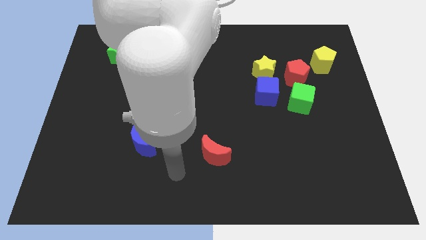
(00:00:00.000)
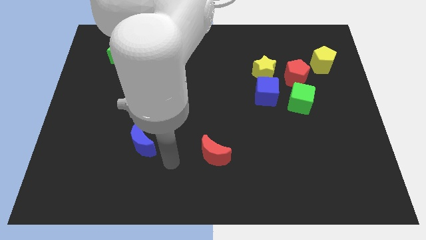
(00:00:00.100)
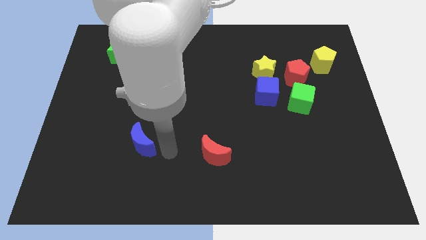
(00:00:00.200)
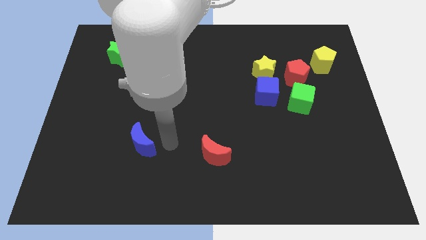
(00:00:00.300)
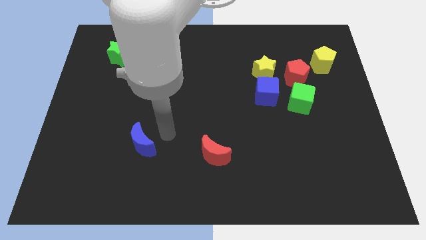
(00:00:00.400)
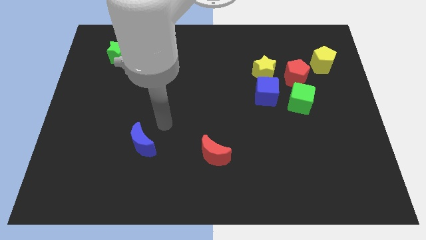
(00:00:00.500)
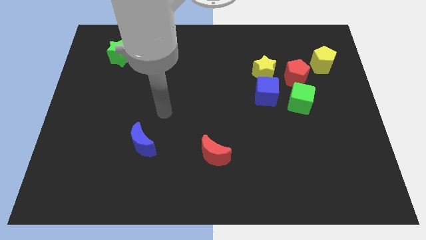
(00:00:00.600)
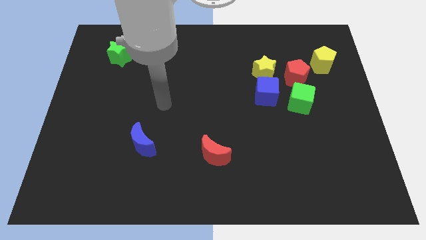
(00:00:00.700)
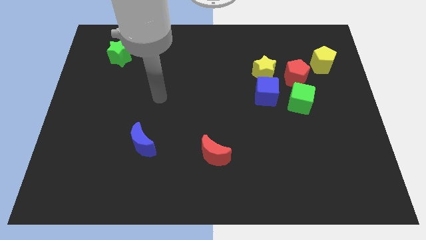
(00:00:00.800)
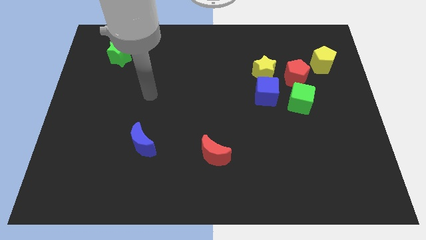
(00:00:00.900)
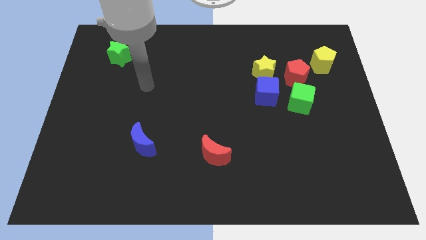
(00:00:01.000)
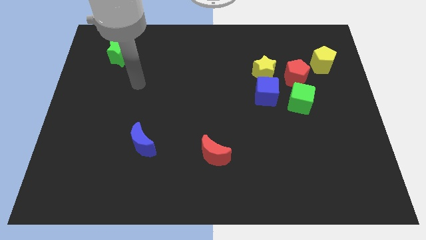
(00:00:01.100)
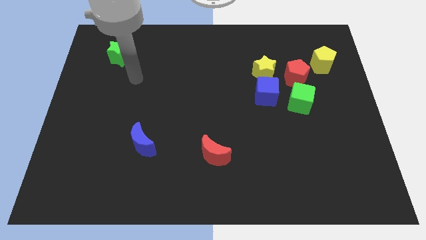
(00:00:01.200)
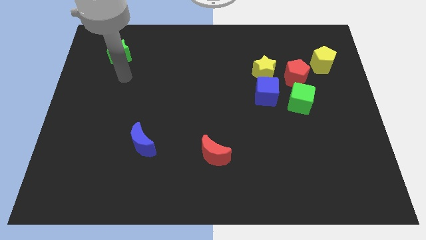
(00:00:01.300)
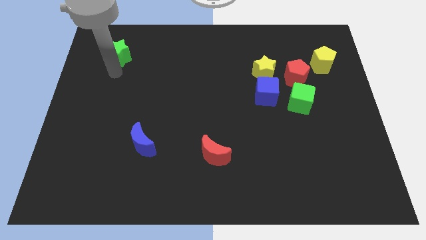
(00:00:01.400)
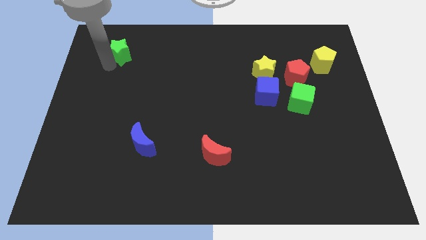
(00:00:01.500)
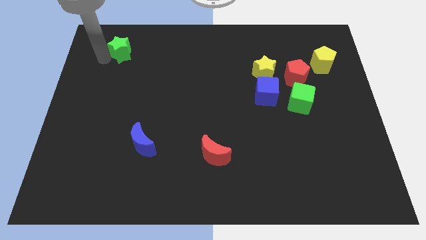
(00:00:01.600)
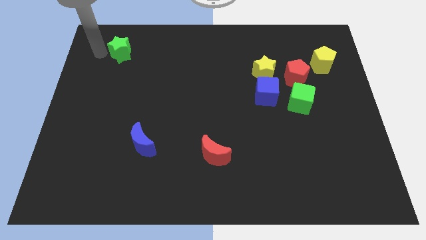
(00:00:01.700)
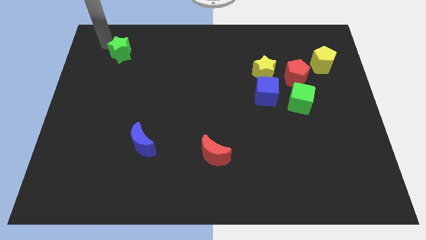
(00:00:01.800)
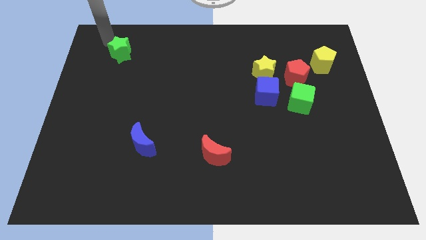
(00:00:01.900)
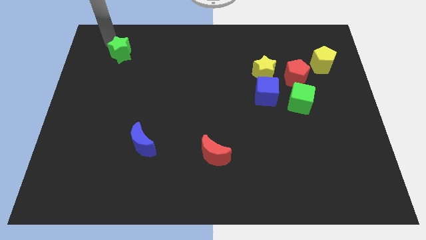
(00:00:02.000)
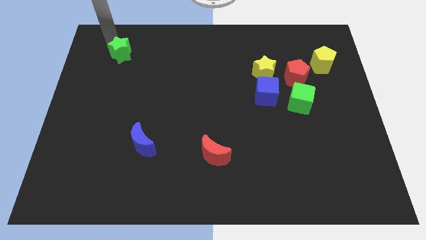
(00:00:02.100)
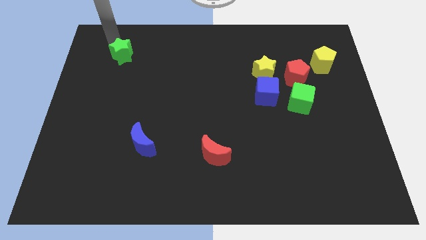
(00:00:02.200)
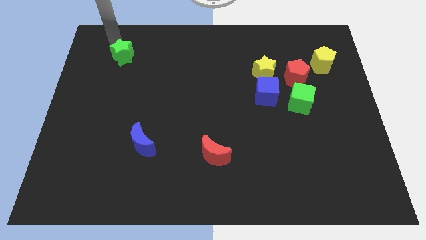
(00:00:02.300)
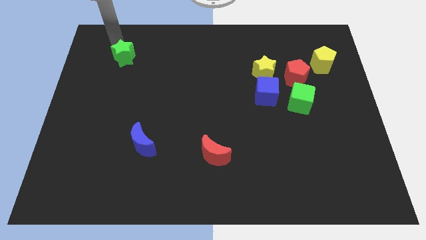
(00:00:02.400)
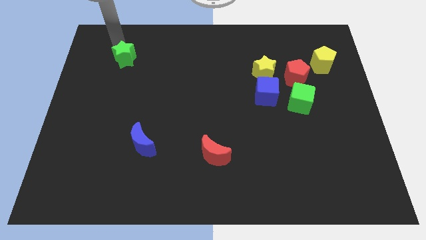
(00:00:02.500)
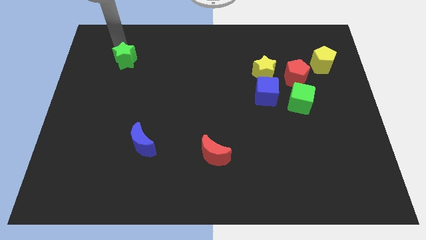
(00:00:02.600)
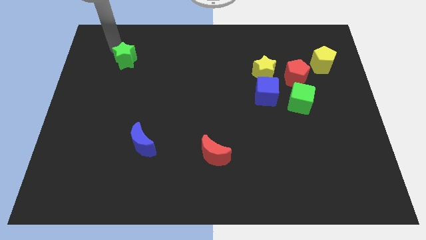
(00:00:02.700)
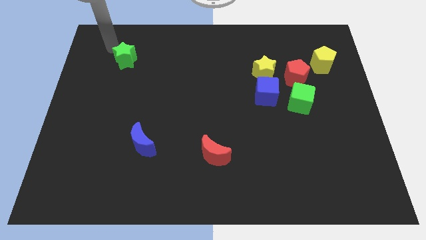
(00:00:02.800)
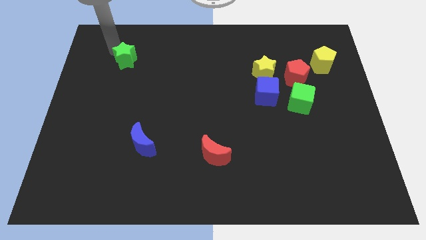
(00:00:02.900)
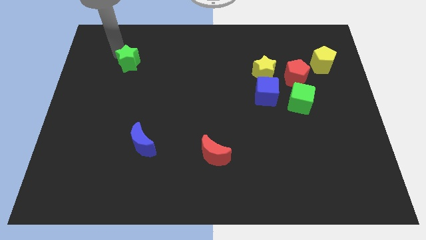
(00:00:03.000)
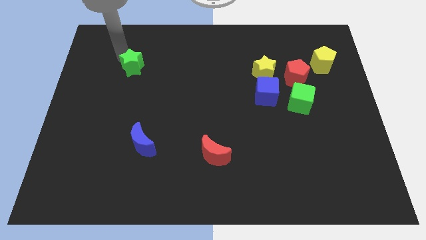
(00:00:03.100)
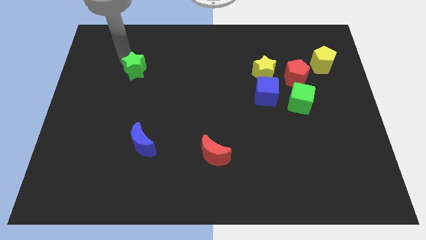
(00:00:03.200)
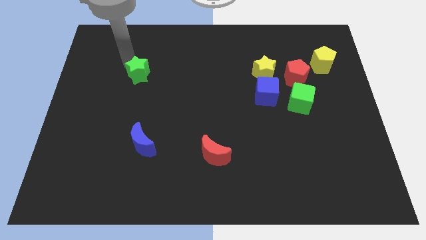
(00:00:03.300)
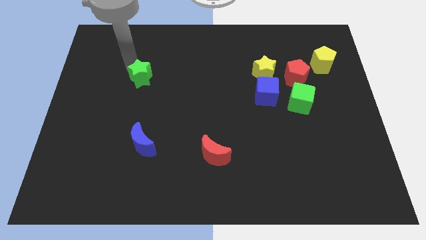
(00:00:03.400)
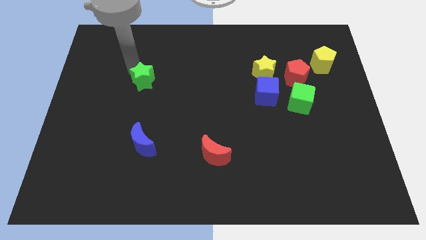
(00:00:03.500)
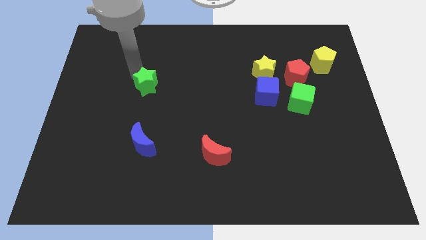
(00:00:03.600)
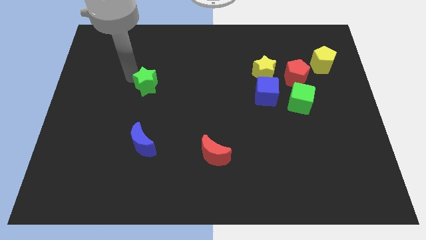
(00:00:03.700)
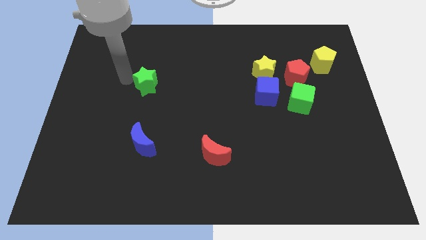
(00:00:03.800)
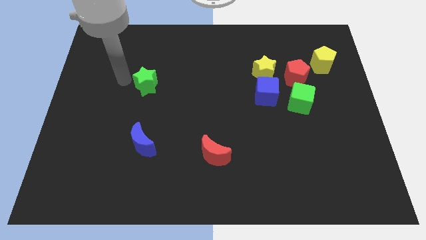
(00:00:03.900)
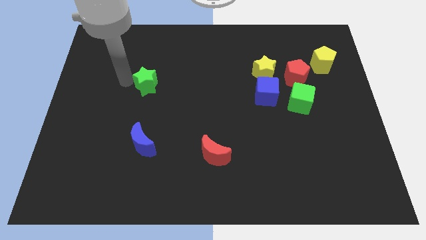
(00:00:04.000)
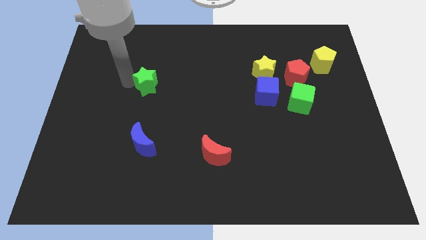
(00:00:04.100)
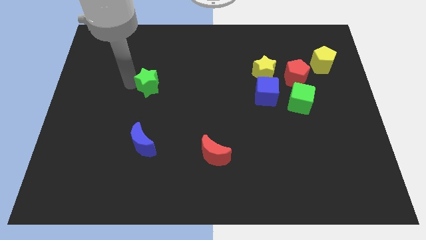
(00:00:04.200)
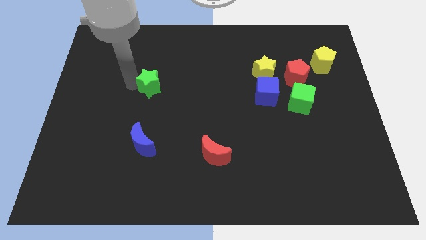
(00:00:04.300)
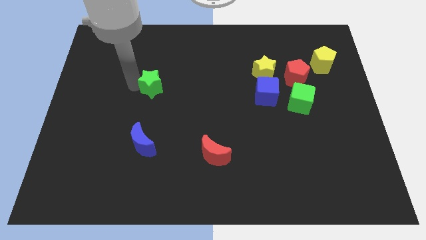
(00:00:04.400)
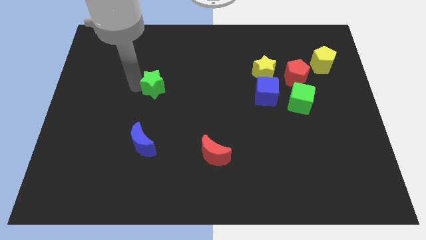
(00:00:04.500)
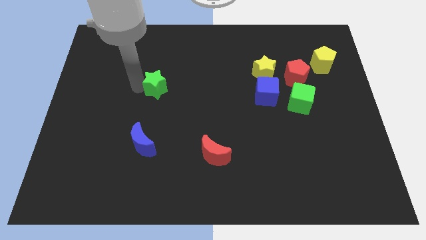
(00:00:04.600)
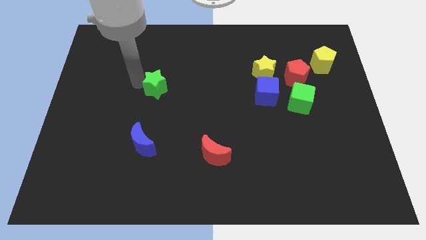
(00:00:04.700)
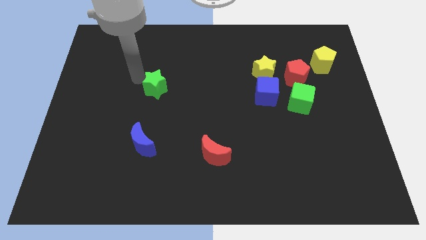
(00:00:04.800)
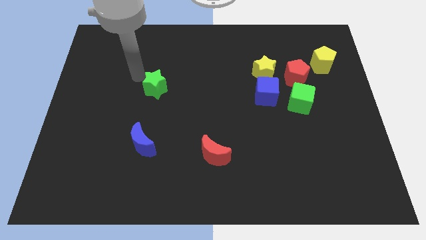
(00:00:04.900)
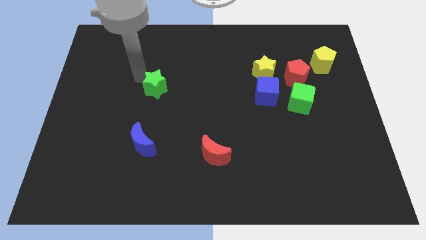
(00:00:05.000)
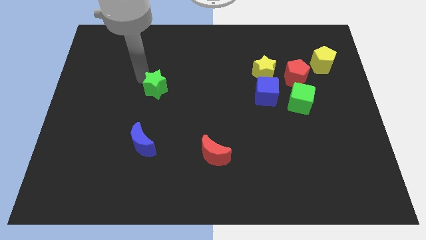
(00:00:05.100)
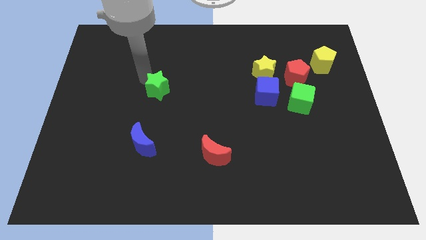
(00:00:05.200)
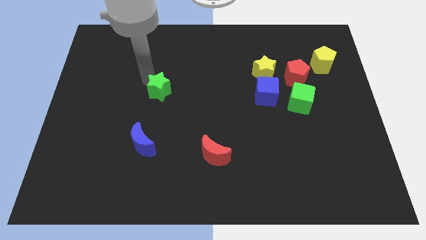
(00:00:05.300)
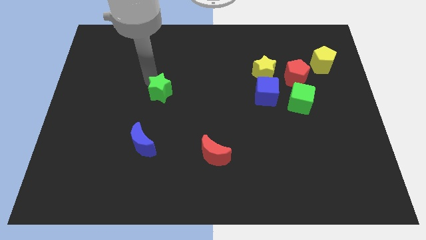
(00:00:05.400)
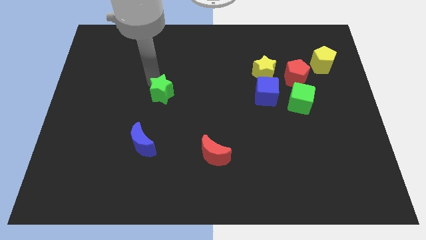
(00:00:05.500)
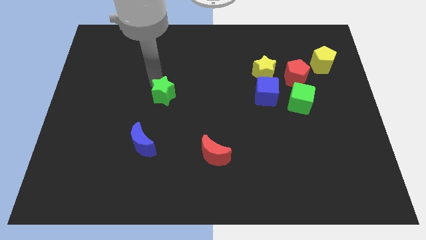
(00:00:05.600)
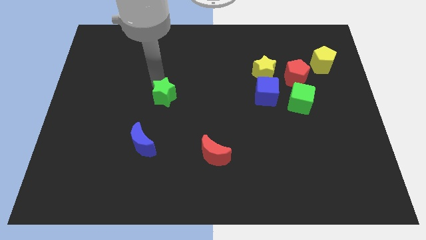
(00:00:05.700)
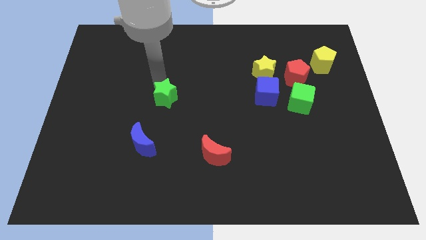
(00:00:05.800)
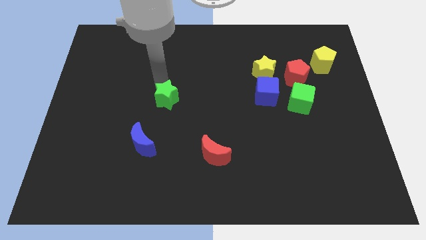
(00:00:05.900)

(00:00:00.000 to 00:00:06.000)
push the green star diagonally down and right

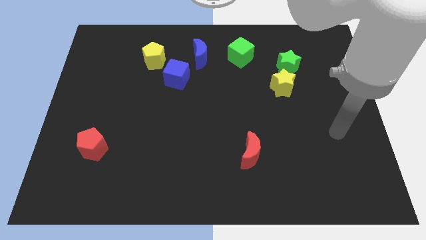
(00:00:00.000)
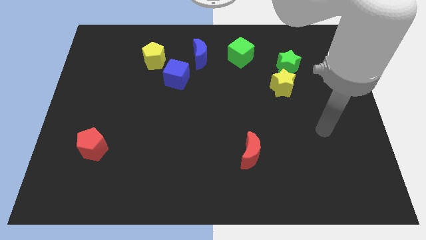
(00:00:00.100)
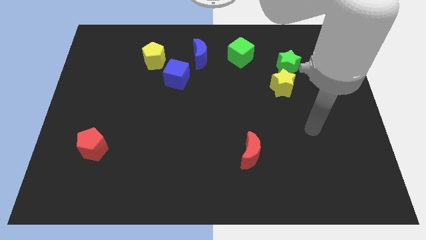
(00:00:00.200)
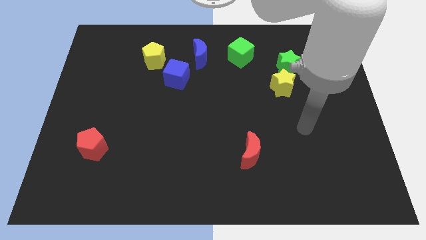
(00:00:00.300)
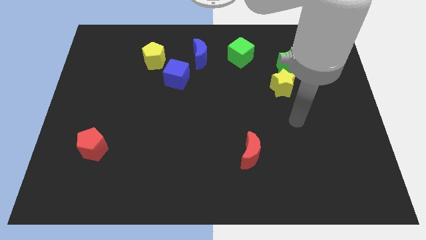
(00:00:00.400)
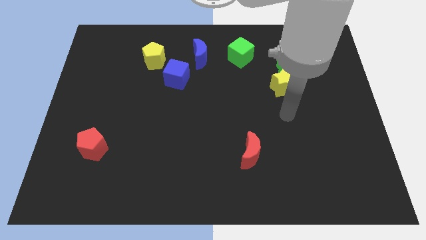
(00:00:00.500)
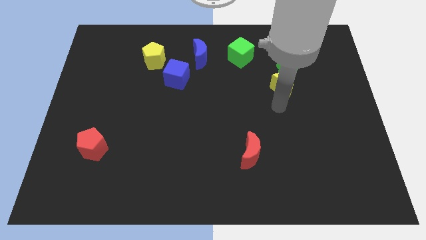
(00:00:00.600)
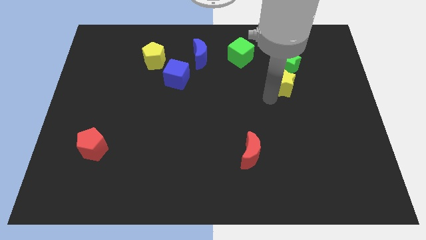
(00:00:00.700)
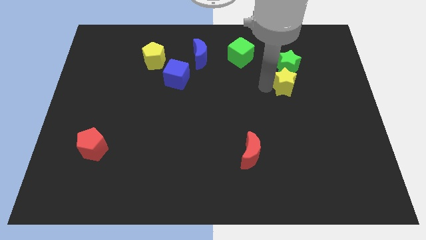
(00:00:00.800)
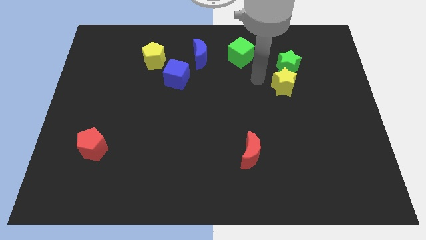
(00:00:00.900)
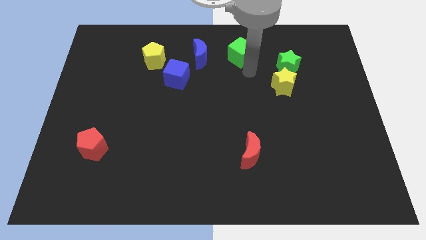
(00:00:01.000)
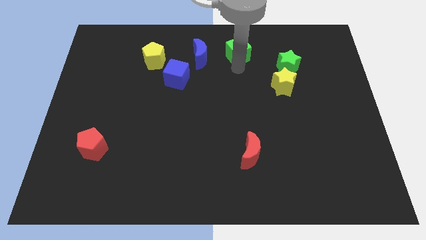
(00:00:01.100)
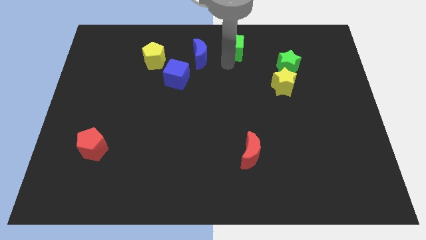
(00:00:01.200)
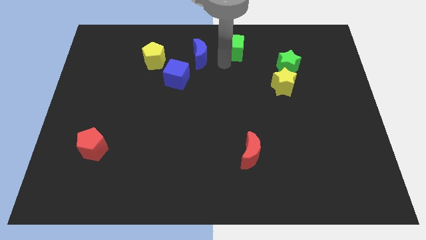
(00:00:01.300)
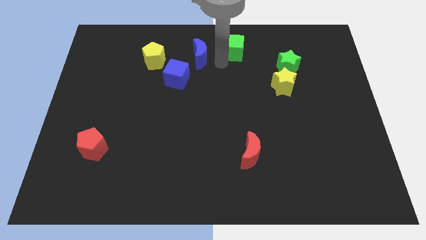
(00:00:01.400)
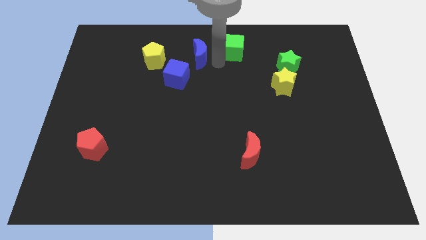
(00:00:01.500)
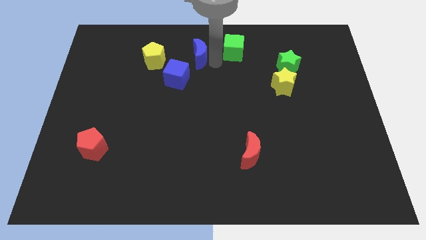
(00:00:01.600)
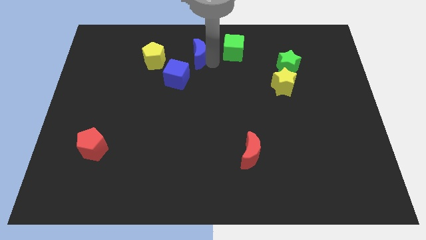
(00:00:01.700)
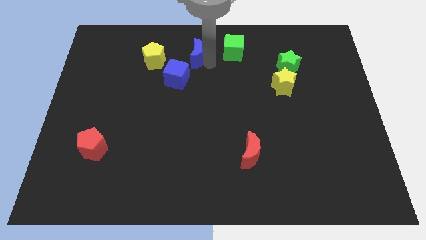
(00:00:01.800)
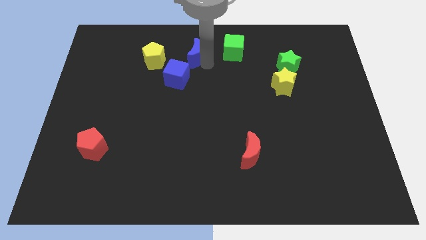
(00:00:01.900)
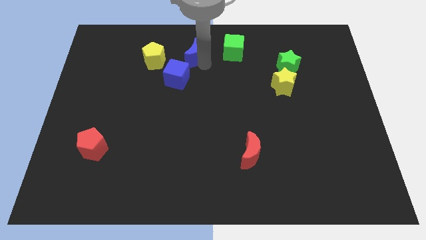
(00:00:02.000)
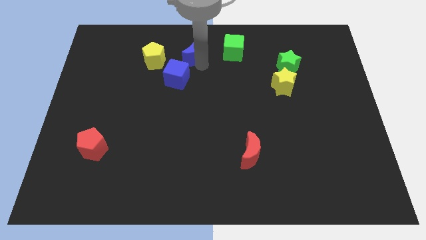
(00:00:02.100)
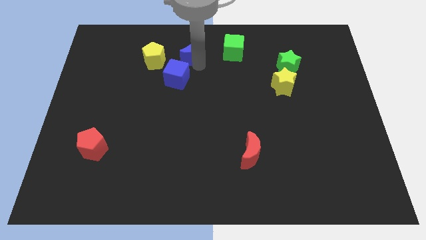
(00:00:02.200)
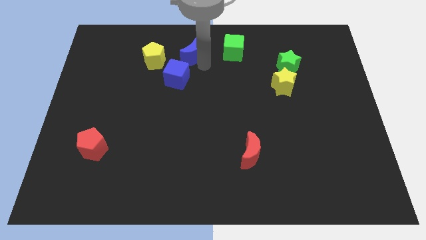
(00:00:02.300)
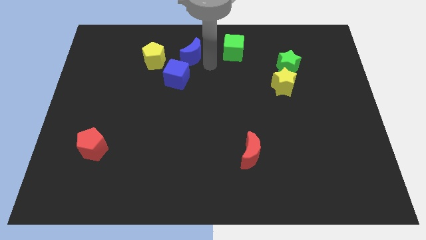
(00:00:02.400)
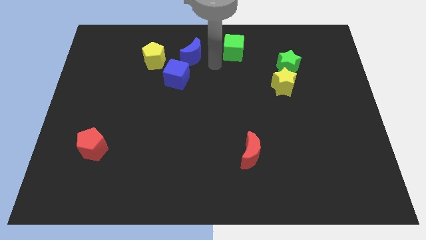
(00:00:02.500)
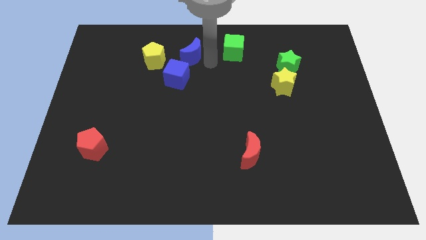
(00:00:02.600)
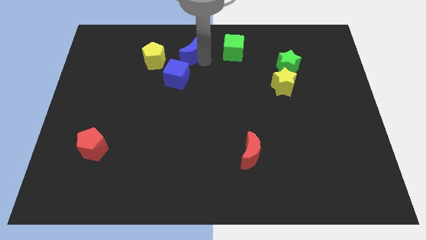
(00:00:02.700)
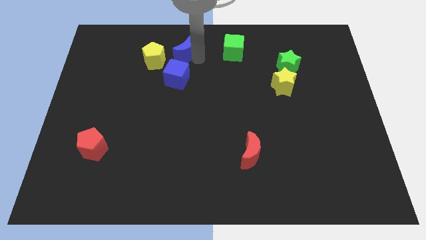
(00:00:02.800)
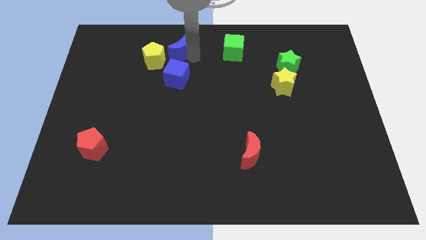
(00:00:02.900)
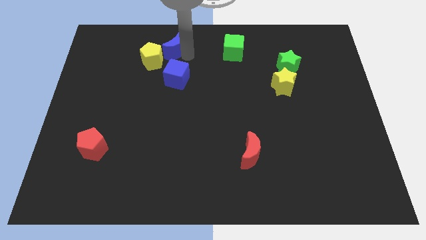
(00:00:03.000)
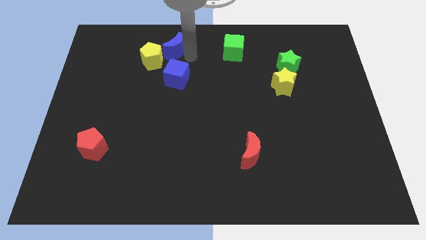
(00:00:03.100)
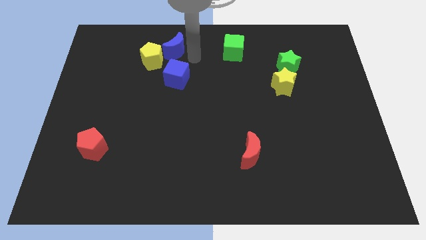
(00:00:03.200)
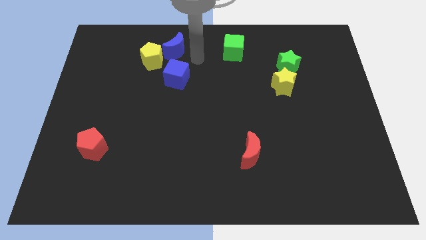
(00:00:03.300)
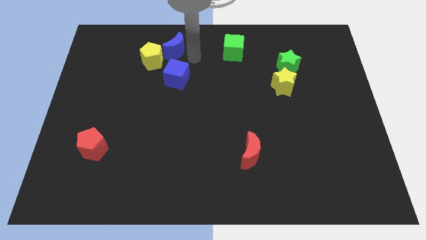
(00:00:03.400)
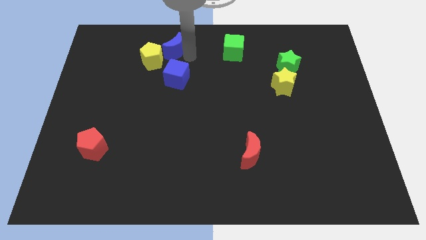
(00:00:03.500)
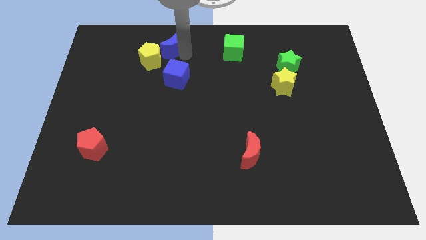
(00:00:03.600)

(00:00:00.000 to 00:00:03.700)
move the blue moon to the left a little bit
